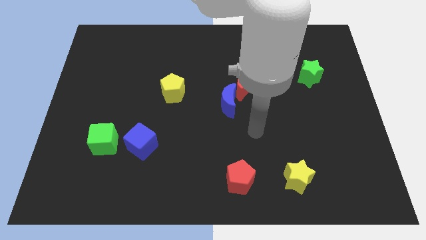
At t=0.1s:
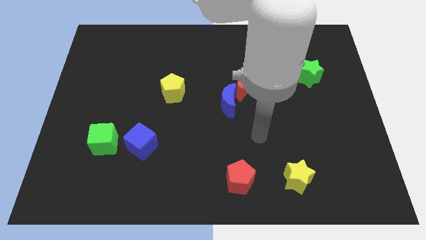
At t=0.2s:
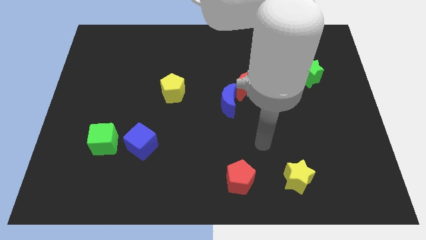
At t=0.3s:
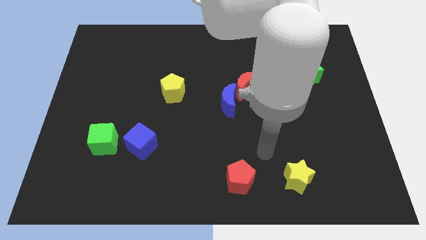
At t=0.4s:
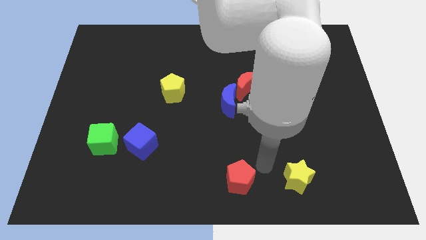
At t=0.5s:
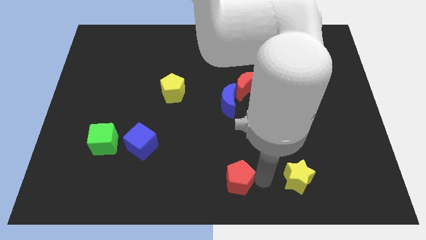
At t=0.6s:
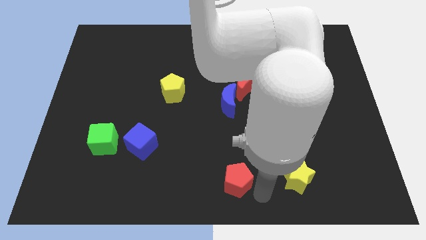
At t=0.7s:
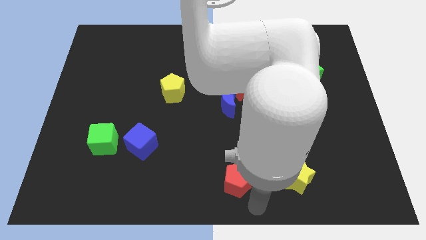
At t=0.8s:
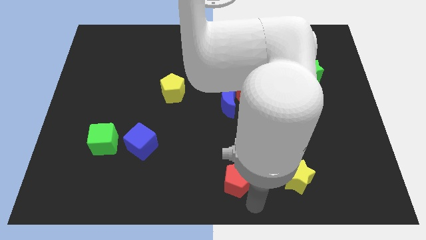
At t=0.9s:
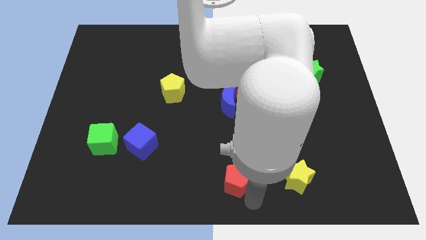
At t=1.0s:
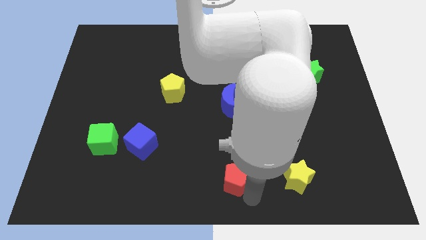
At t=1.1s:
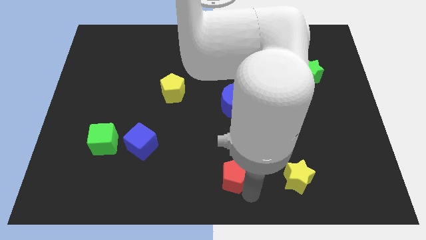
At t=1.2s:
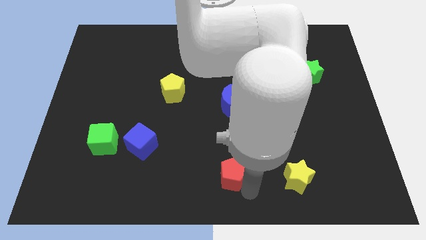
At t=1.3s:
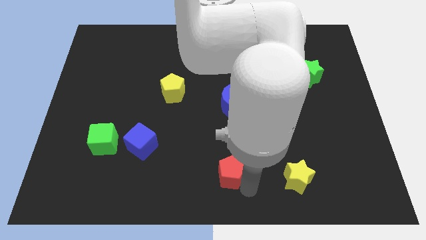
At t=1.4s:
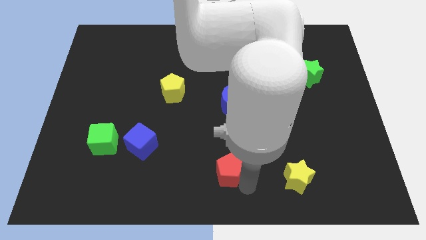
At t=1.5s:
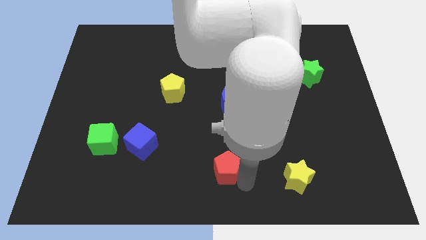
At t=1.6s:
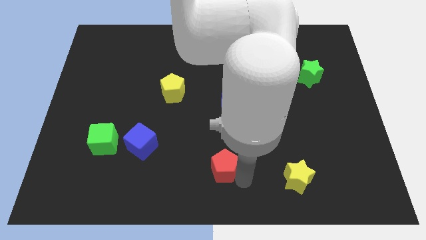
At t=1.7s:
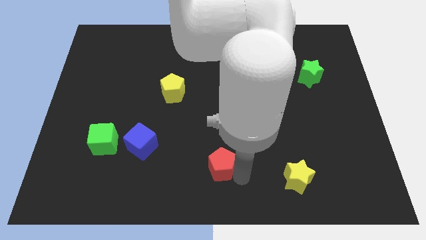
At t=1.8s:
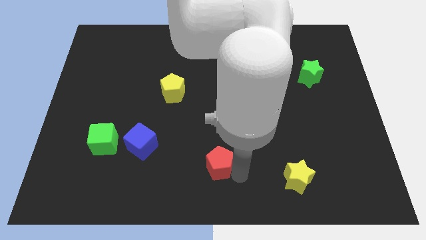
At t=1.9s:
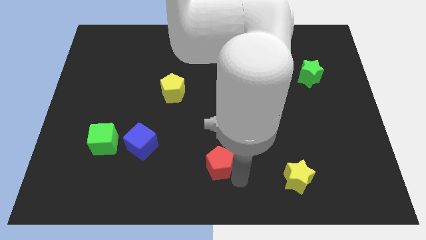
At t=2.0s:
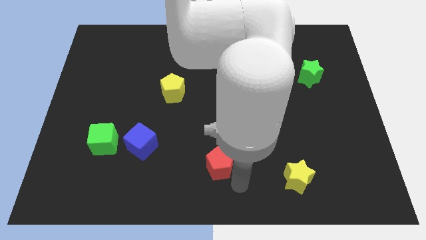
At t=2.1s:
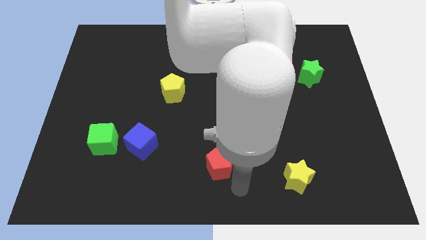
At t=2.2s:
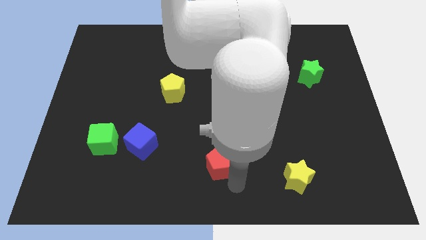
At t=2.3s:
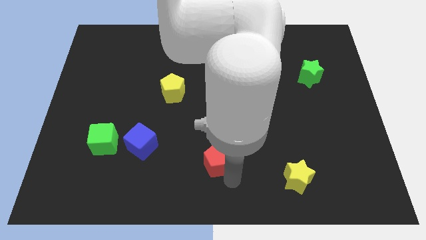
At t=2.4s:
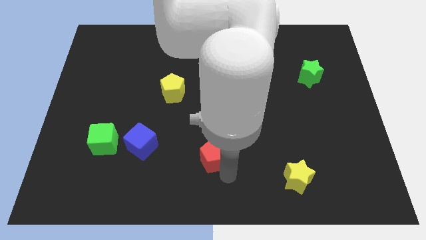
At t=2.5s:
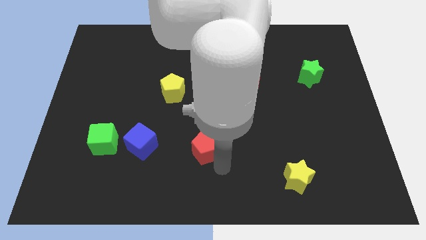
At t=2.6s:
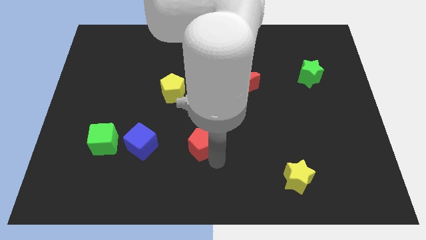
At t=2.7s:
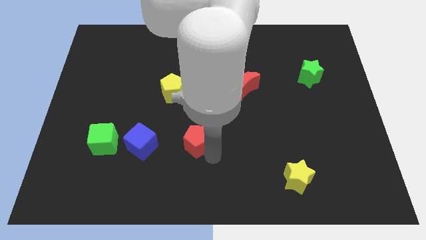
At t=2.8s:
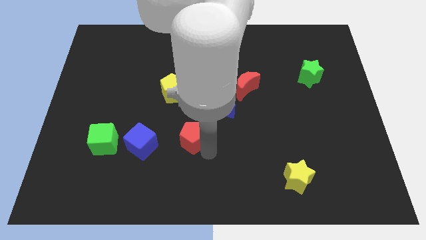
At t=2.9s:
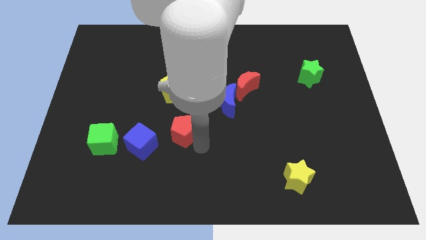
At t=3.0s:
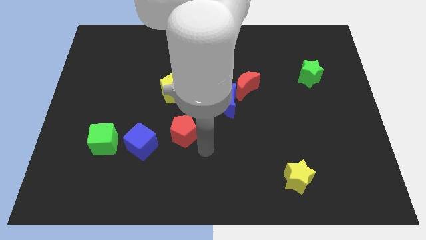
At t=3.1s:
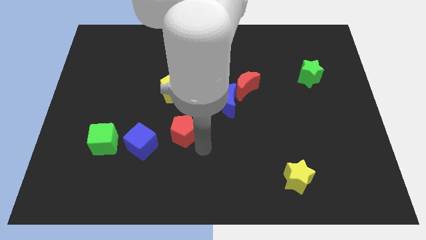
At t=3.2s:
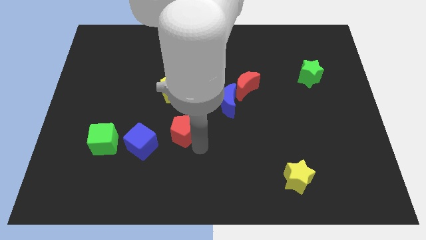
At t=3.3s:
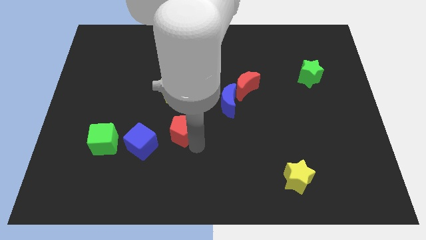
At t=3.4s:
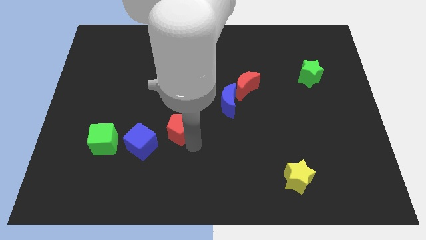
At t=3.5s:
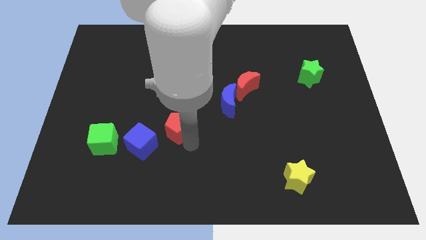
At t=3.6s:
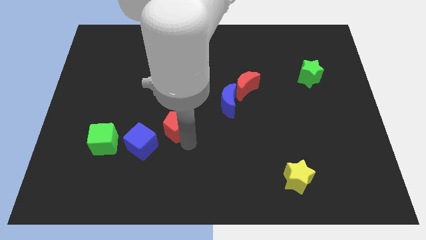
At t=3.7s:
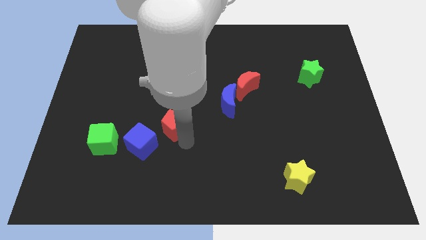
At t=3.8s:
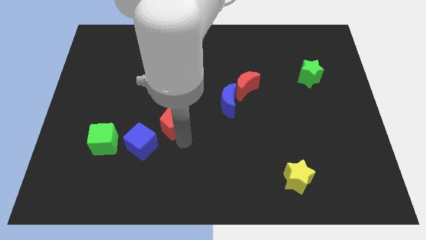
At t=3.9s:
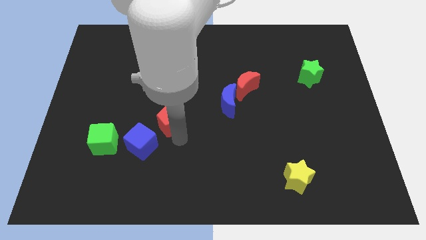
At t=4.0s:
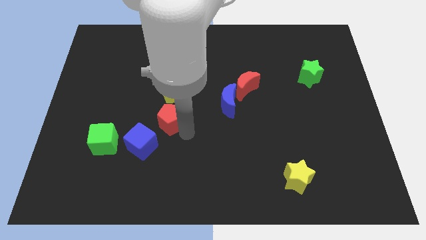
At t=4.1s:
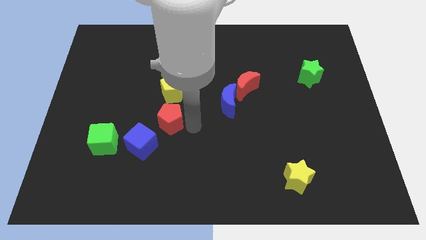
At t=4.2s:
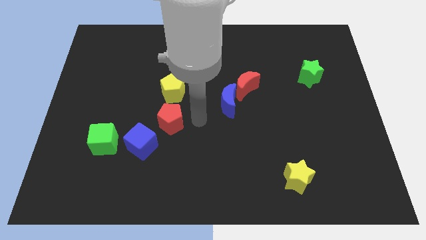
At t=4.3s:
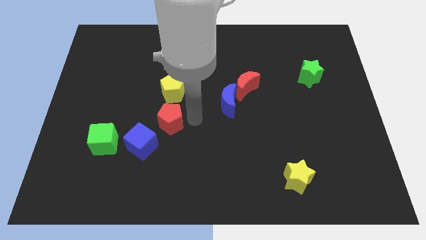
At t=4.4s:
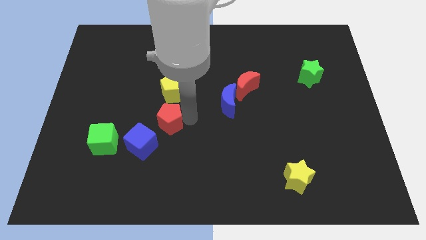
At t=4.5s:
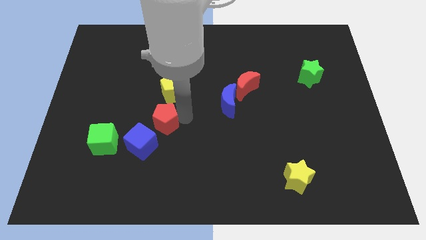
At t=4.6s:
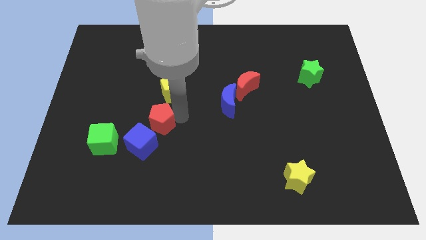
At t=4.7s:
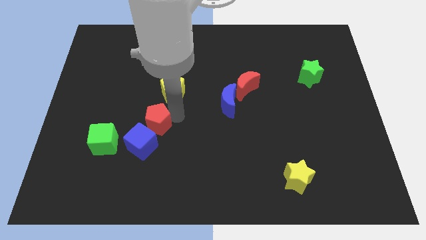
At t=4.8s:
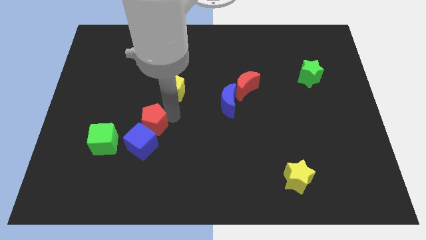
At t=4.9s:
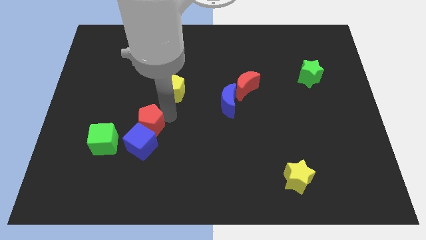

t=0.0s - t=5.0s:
slide the red pentagon diagonally up and to the left of the blue cube

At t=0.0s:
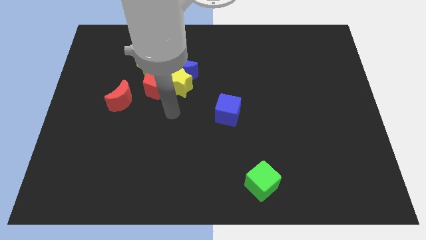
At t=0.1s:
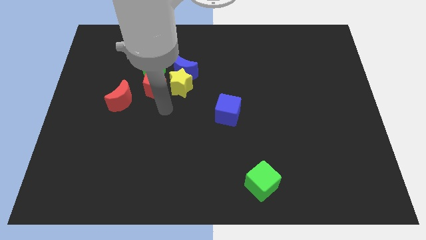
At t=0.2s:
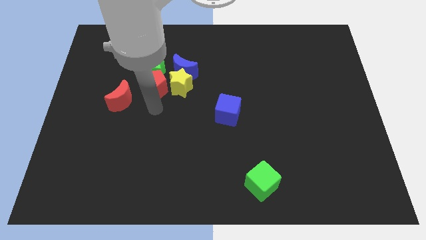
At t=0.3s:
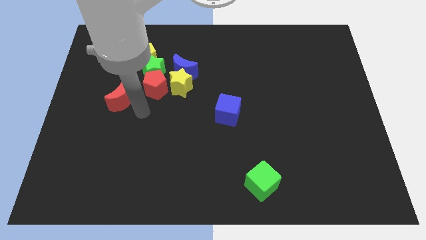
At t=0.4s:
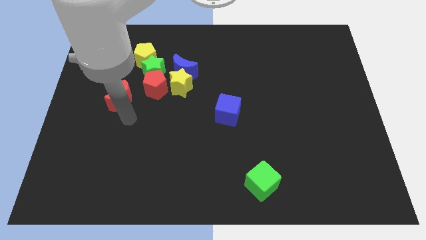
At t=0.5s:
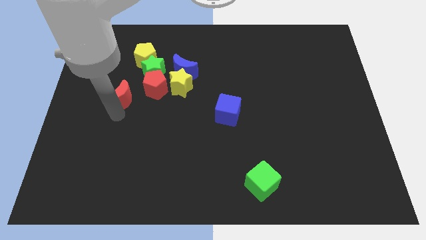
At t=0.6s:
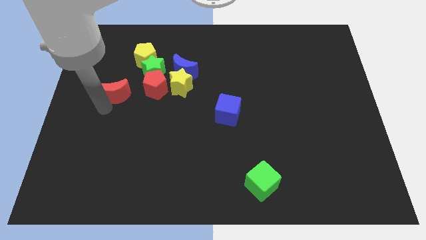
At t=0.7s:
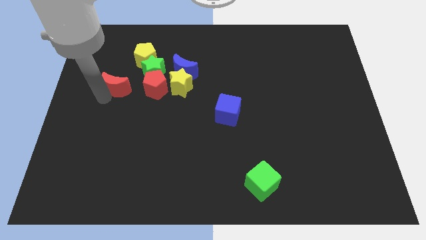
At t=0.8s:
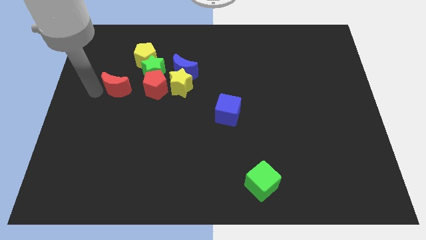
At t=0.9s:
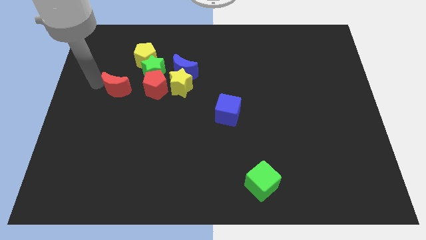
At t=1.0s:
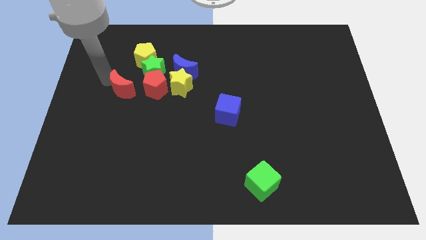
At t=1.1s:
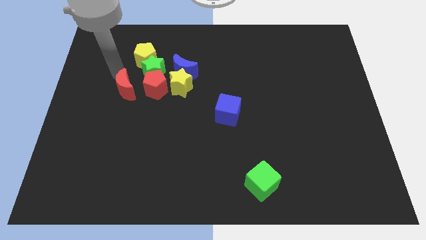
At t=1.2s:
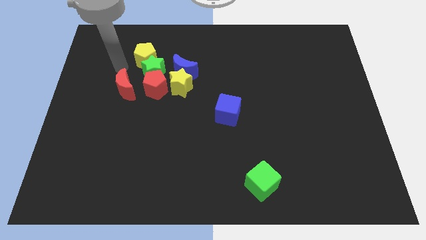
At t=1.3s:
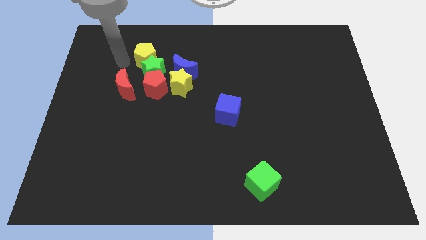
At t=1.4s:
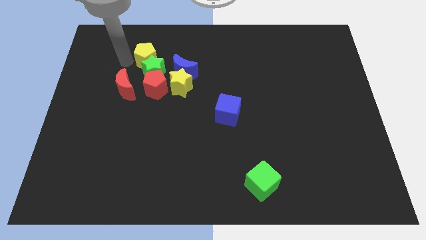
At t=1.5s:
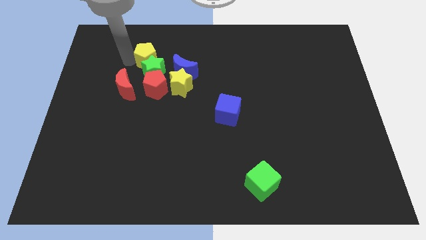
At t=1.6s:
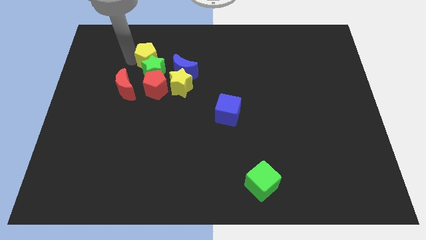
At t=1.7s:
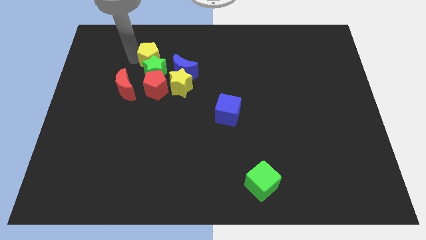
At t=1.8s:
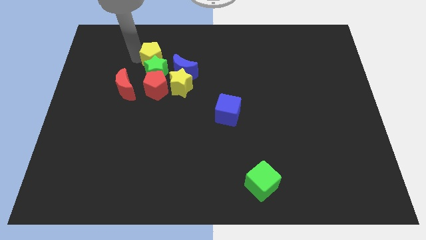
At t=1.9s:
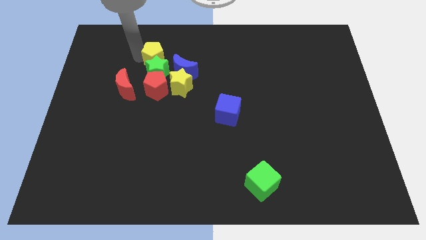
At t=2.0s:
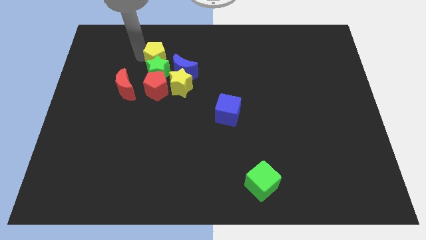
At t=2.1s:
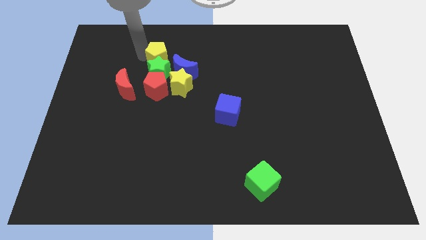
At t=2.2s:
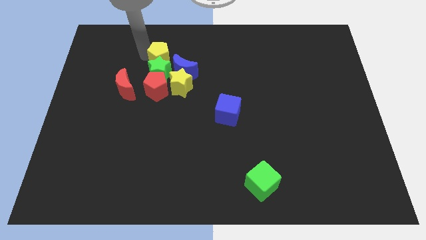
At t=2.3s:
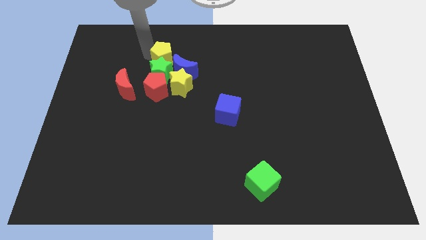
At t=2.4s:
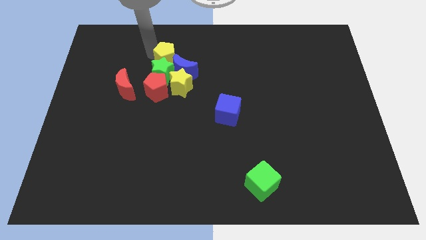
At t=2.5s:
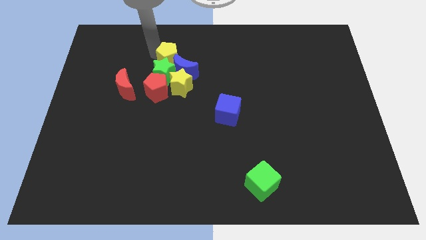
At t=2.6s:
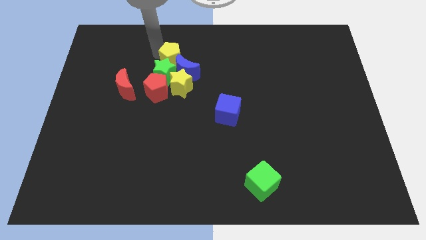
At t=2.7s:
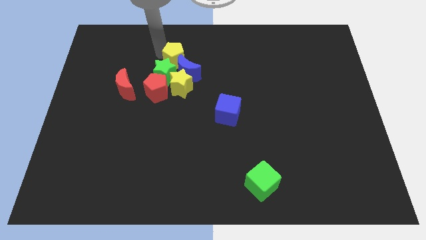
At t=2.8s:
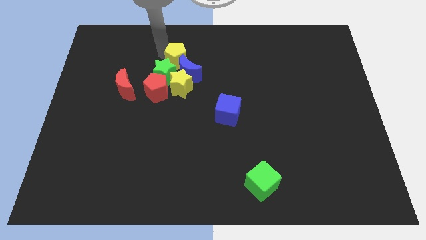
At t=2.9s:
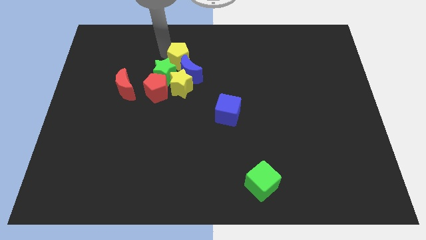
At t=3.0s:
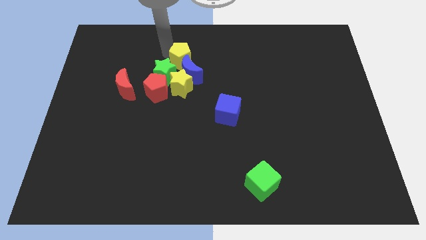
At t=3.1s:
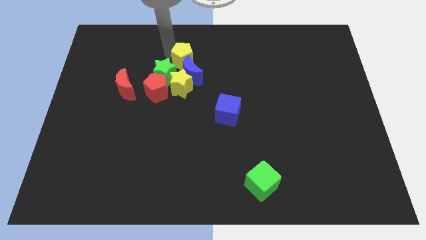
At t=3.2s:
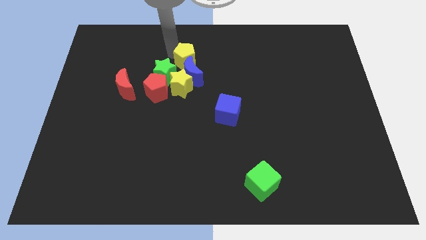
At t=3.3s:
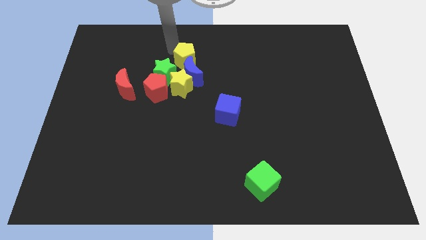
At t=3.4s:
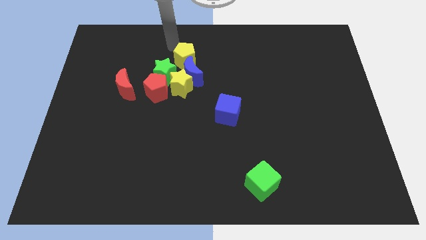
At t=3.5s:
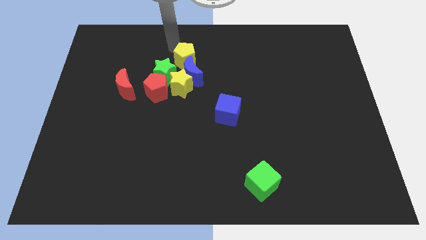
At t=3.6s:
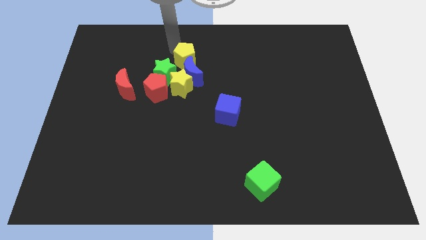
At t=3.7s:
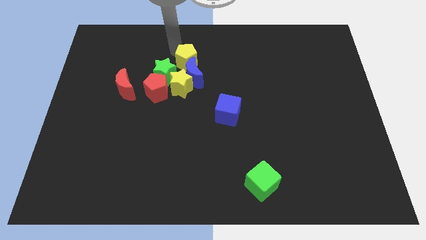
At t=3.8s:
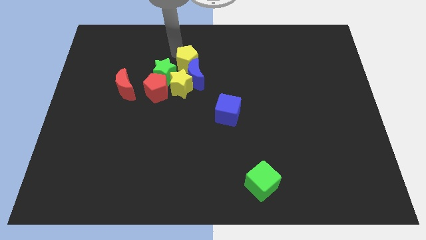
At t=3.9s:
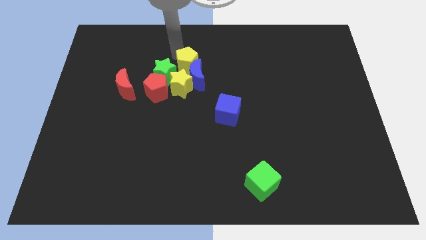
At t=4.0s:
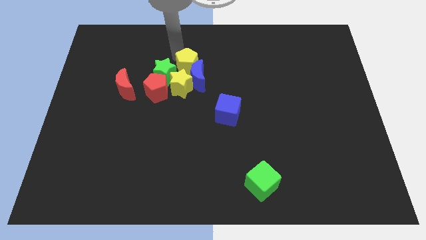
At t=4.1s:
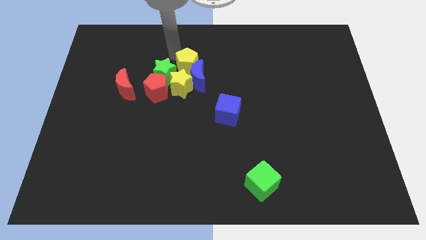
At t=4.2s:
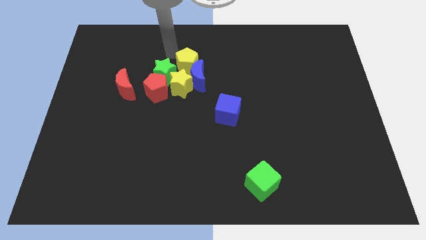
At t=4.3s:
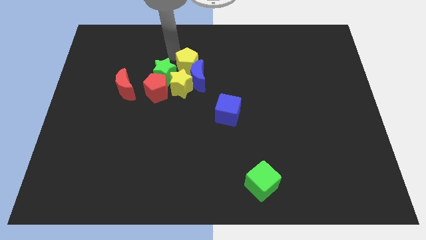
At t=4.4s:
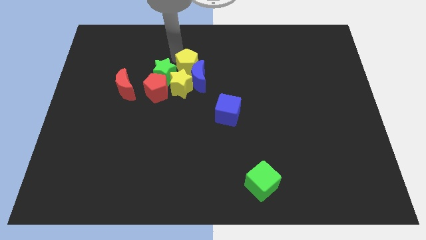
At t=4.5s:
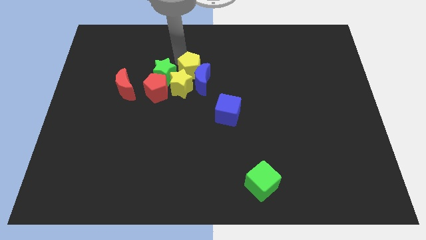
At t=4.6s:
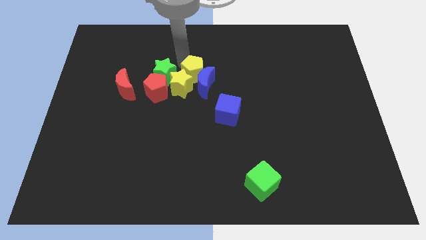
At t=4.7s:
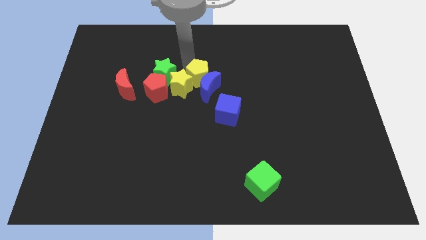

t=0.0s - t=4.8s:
move the yellow pentagon just right of the red pentagon
